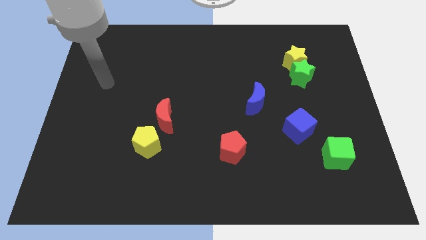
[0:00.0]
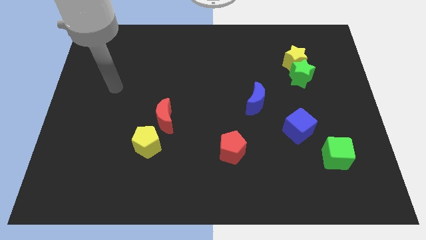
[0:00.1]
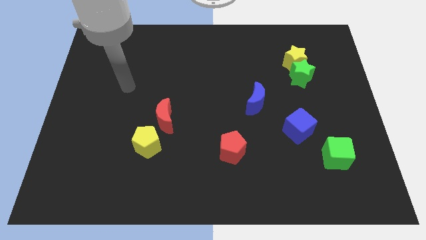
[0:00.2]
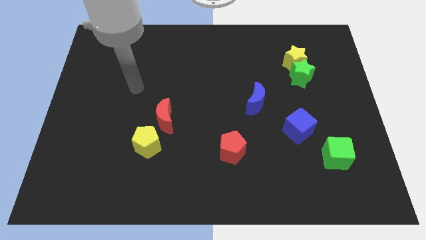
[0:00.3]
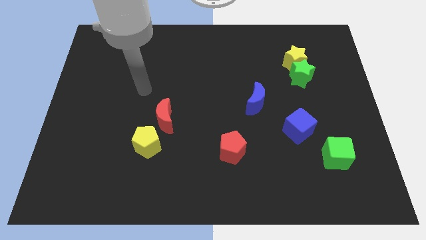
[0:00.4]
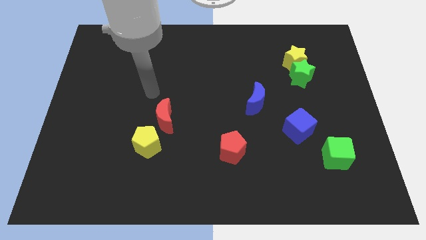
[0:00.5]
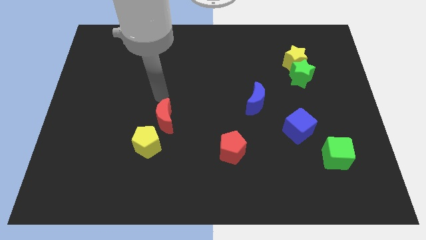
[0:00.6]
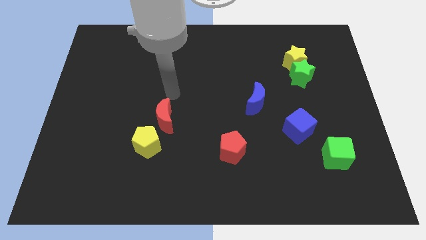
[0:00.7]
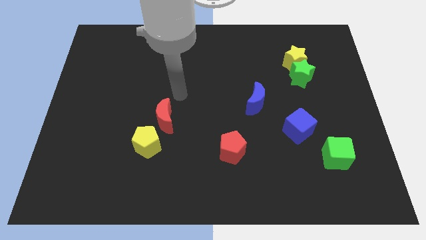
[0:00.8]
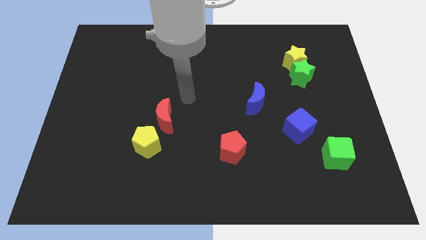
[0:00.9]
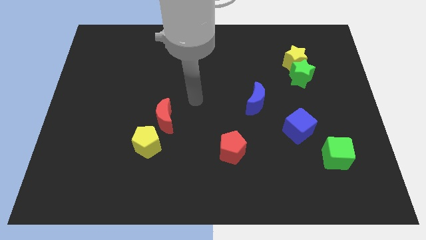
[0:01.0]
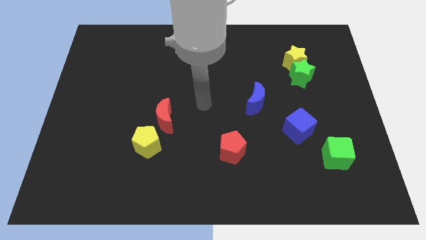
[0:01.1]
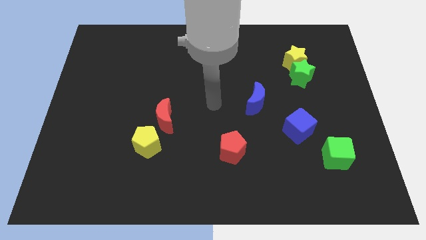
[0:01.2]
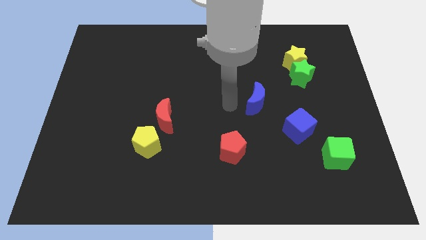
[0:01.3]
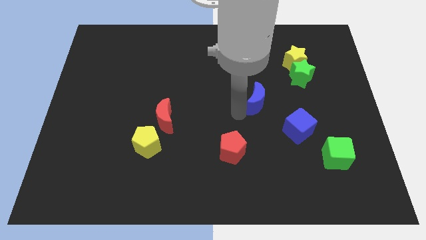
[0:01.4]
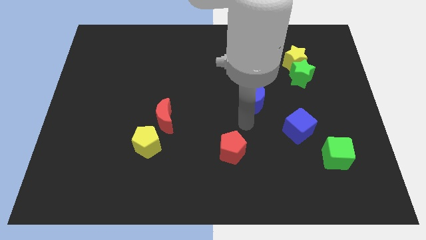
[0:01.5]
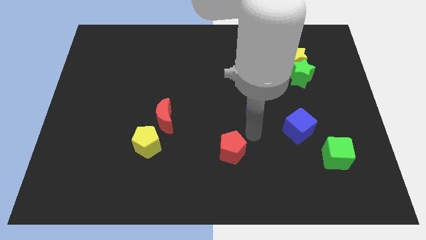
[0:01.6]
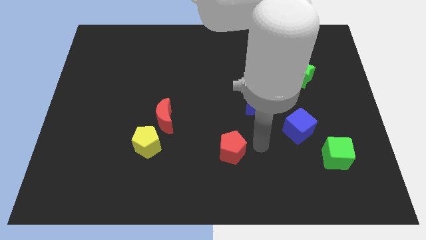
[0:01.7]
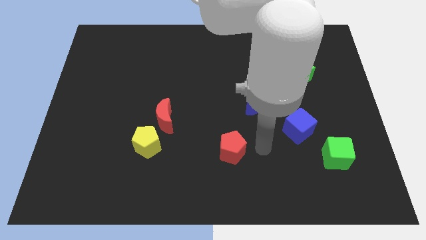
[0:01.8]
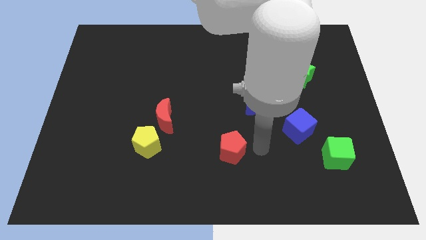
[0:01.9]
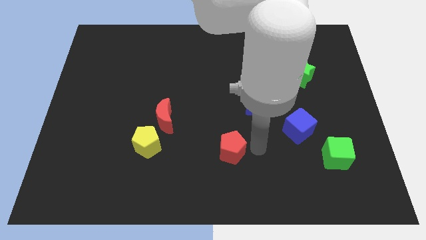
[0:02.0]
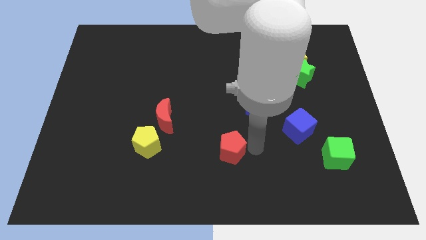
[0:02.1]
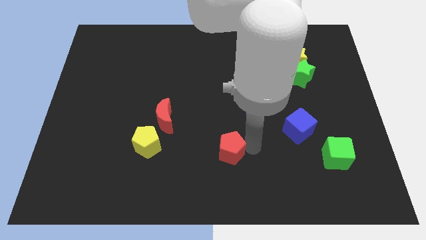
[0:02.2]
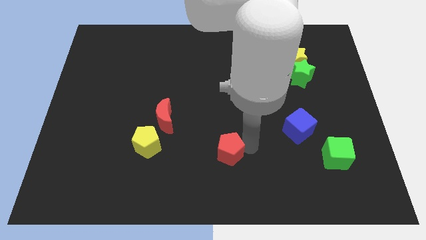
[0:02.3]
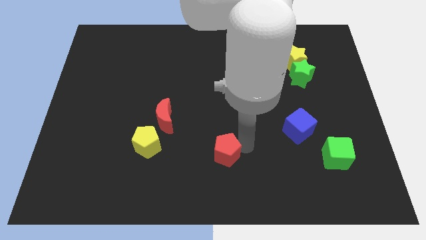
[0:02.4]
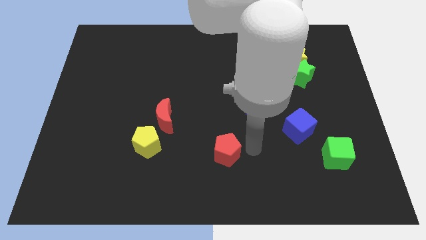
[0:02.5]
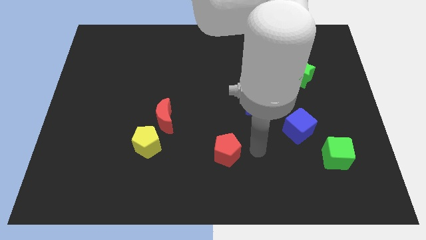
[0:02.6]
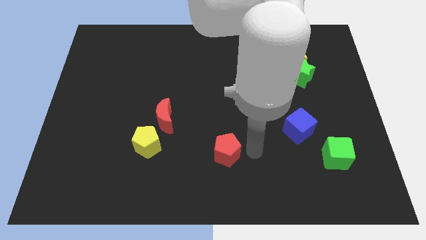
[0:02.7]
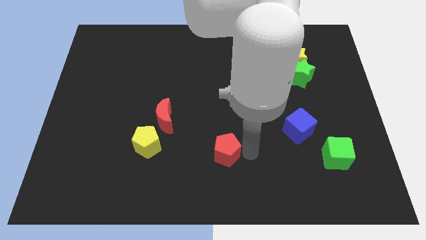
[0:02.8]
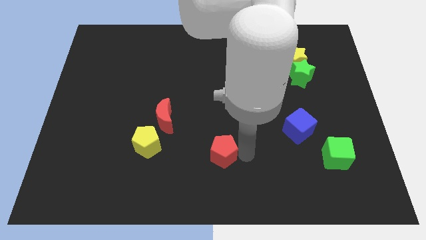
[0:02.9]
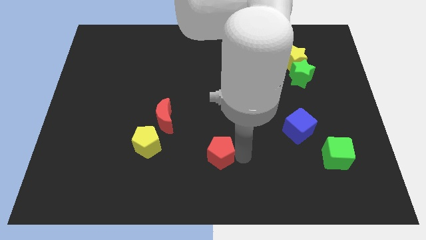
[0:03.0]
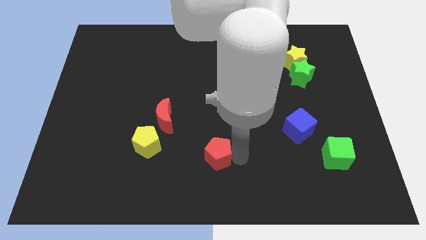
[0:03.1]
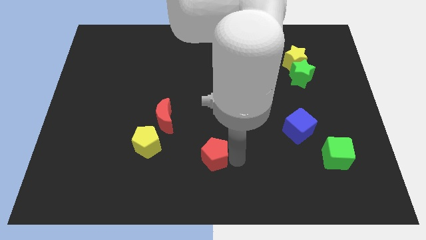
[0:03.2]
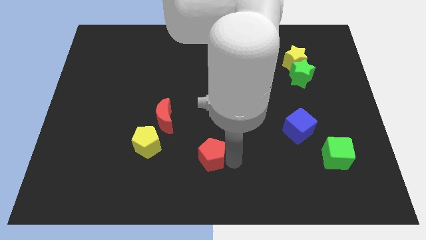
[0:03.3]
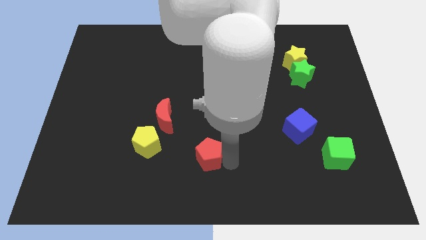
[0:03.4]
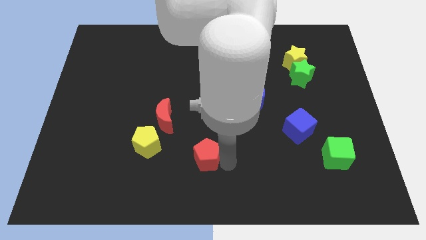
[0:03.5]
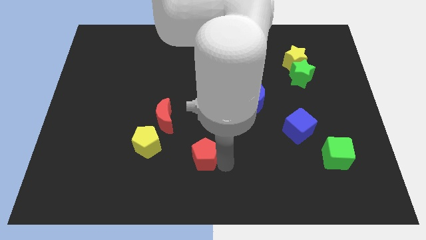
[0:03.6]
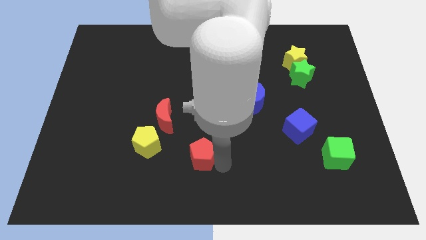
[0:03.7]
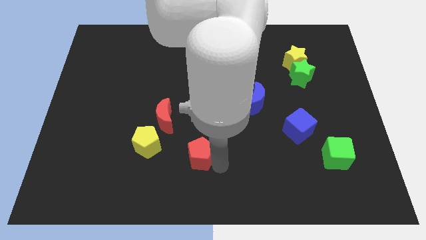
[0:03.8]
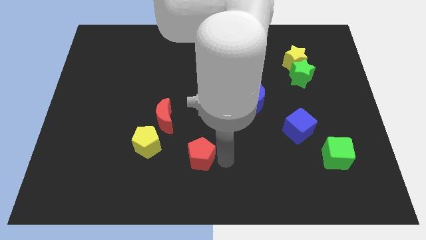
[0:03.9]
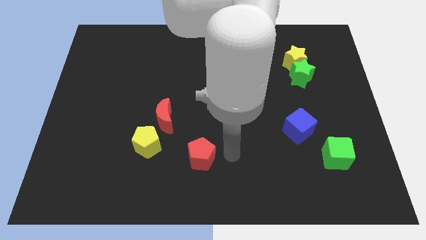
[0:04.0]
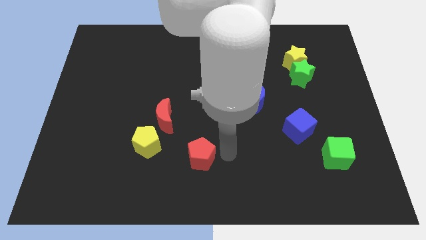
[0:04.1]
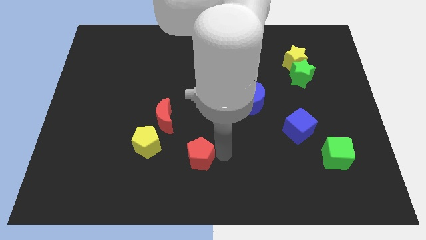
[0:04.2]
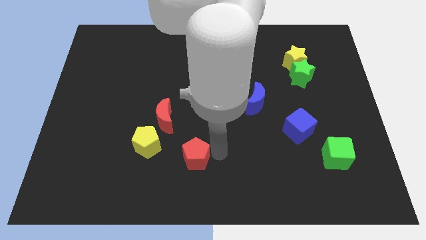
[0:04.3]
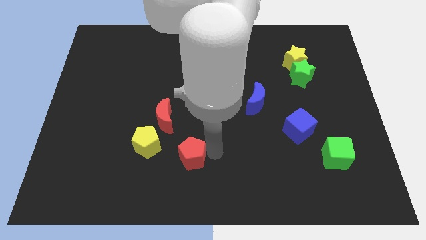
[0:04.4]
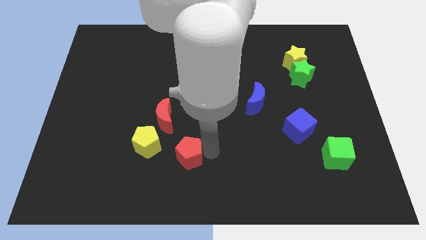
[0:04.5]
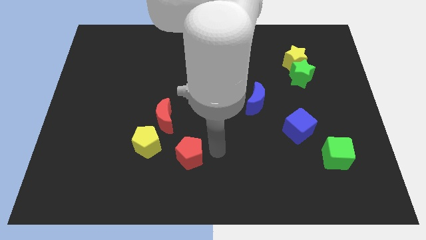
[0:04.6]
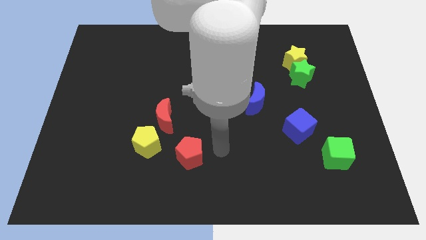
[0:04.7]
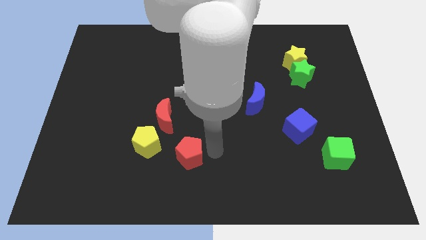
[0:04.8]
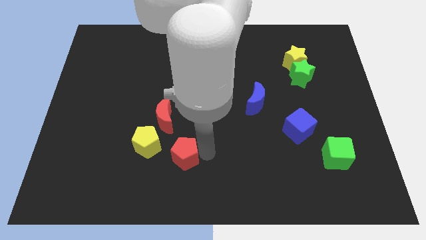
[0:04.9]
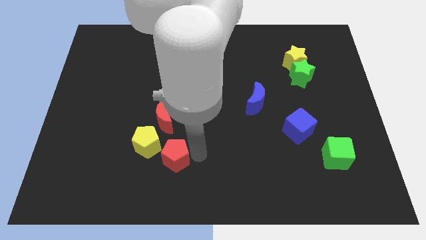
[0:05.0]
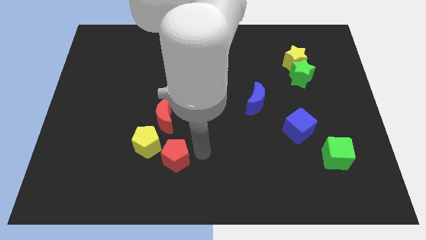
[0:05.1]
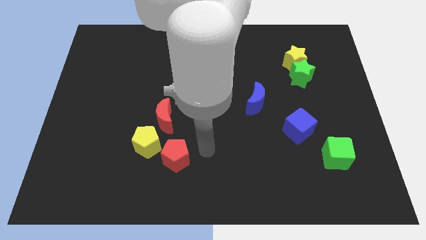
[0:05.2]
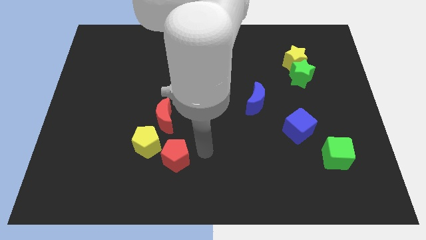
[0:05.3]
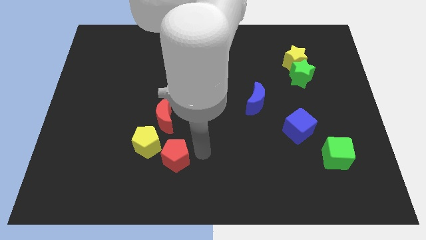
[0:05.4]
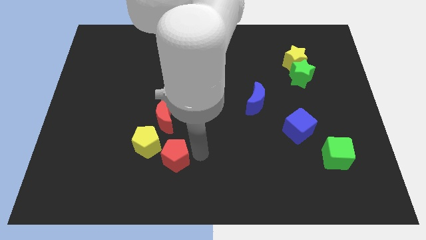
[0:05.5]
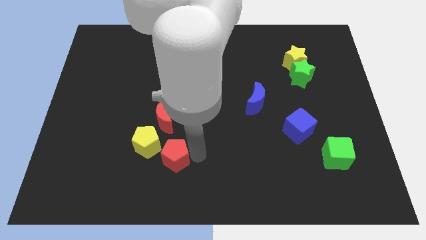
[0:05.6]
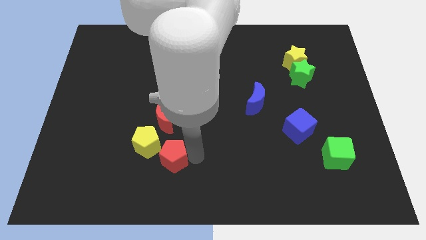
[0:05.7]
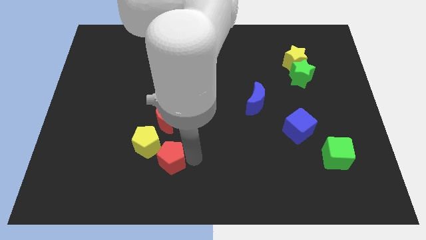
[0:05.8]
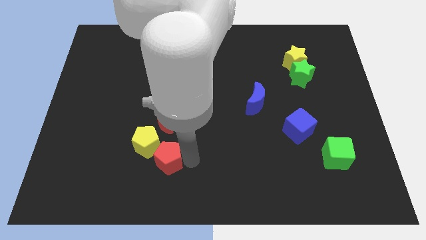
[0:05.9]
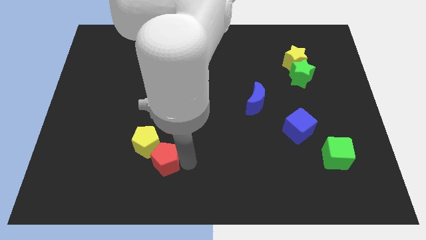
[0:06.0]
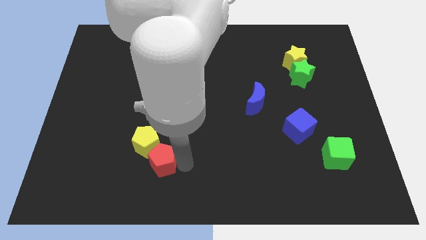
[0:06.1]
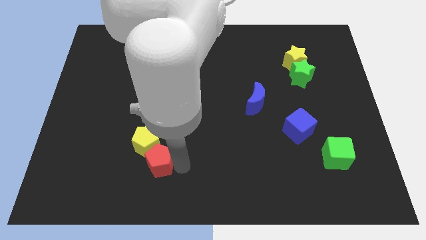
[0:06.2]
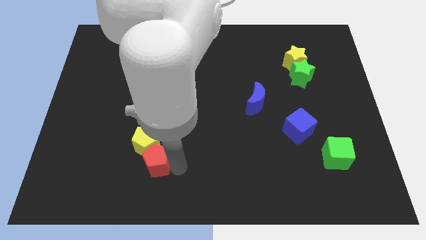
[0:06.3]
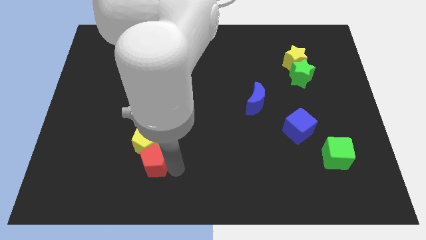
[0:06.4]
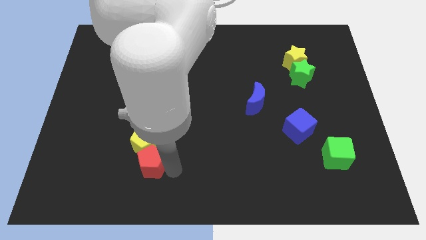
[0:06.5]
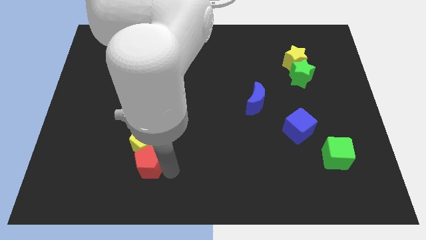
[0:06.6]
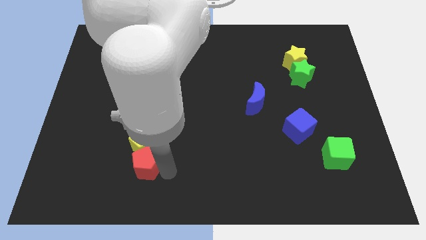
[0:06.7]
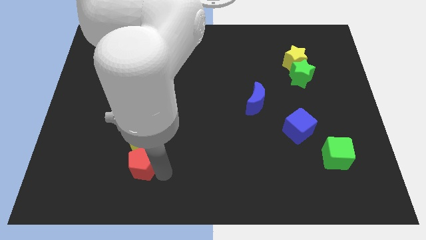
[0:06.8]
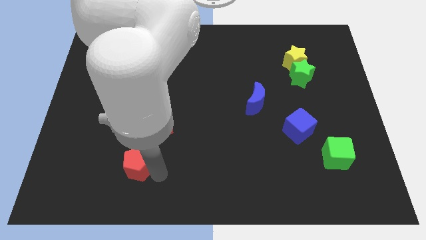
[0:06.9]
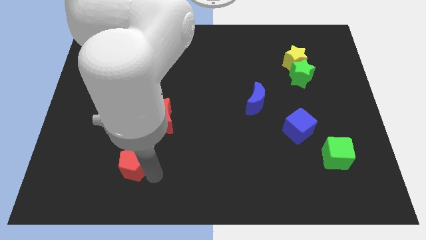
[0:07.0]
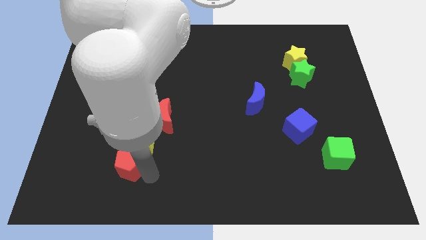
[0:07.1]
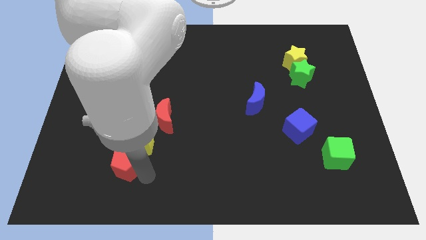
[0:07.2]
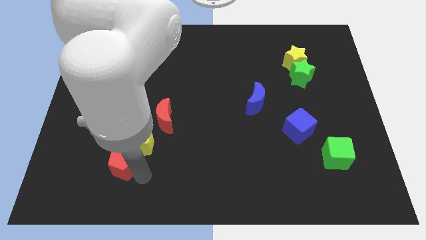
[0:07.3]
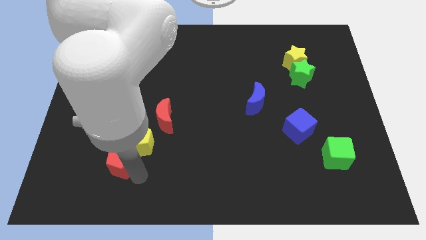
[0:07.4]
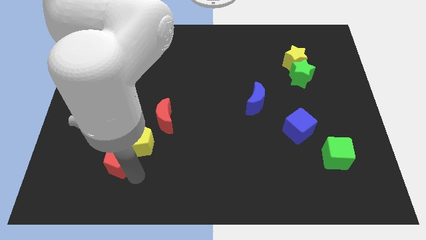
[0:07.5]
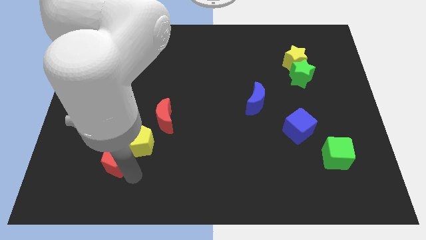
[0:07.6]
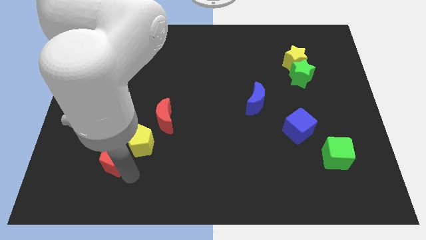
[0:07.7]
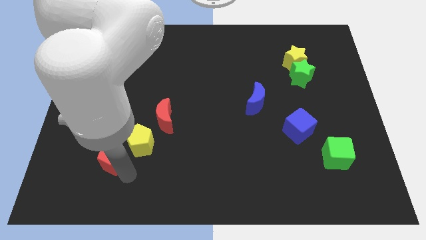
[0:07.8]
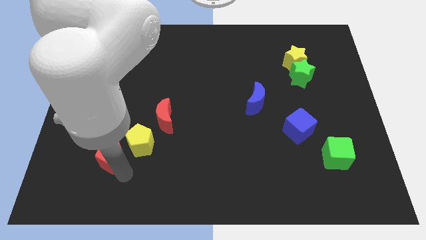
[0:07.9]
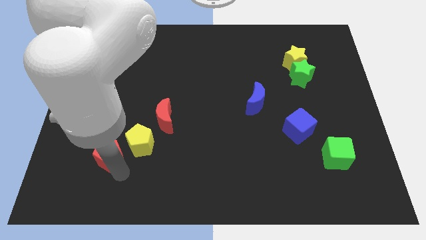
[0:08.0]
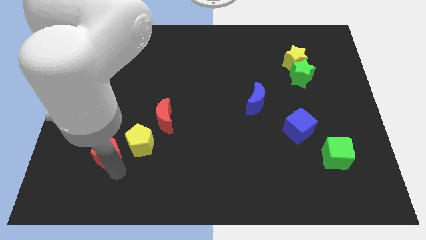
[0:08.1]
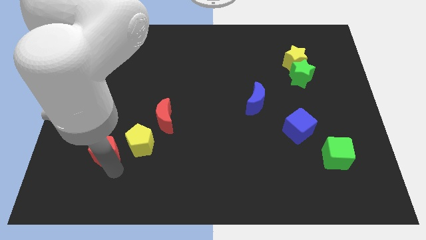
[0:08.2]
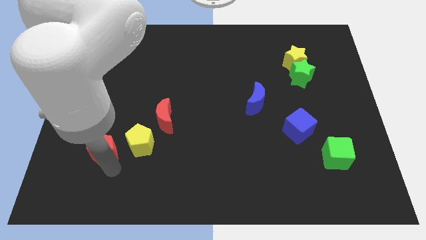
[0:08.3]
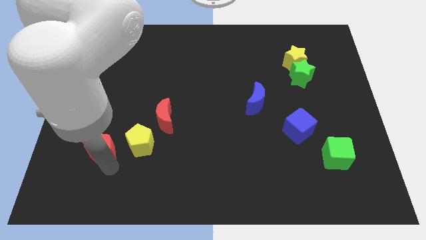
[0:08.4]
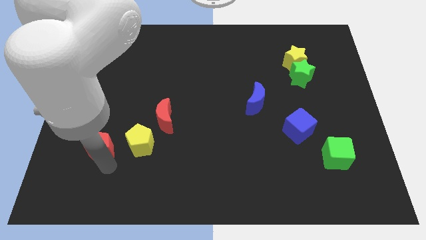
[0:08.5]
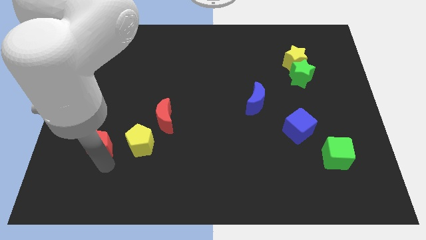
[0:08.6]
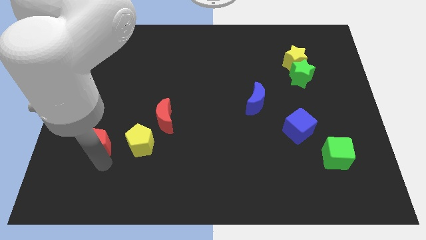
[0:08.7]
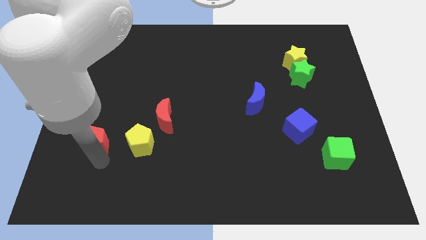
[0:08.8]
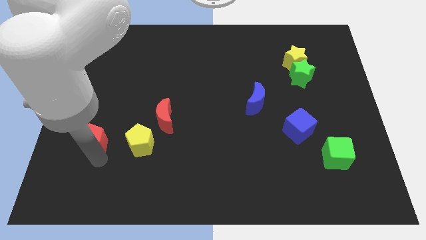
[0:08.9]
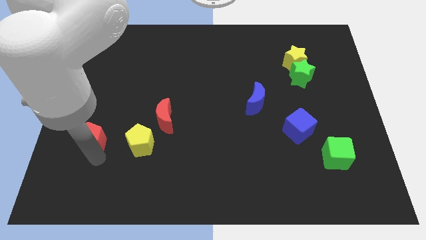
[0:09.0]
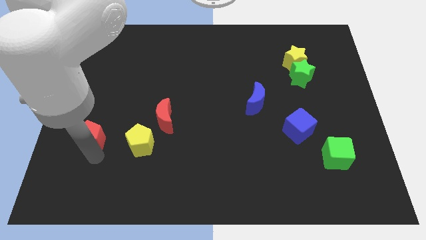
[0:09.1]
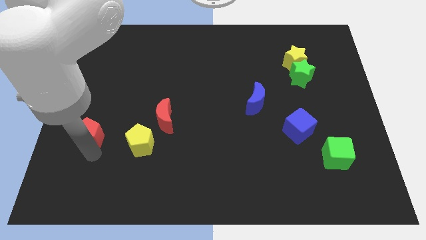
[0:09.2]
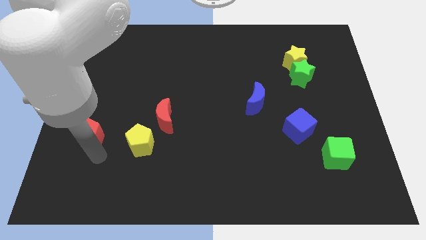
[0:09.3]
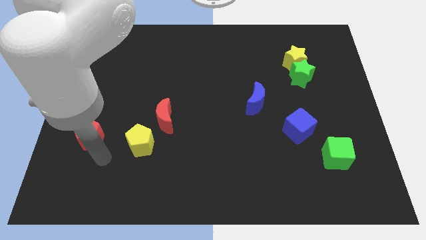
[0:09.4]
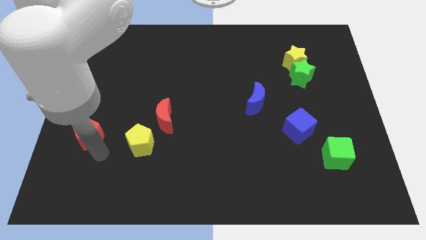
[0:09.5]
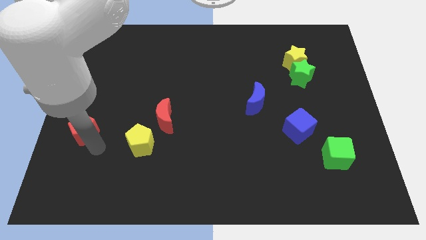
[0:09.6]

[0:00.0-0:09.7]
slide the red pentagon to the left side
